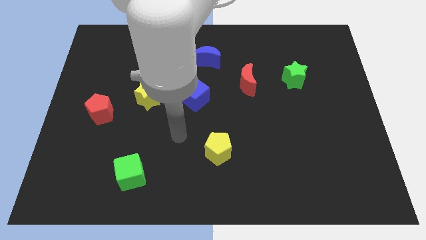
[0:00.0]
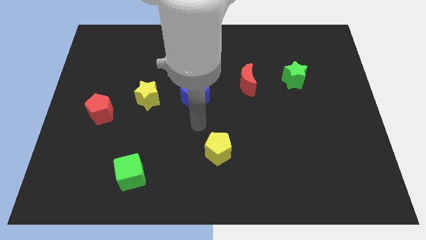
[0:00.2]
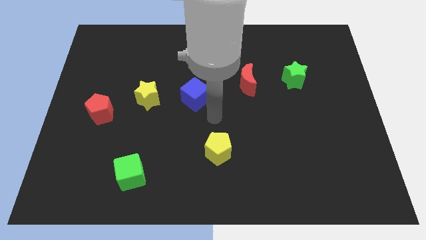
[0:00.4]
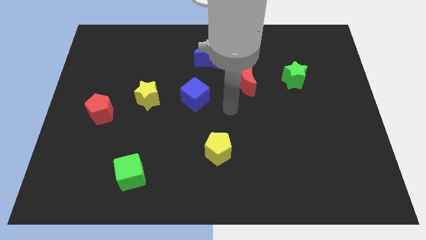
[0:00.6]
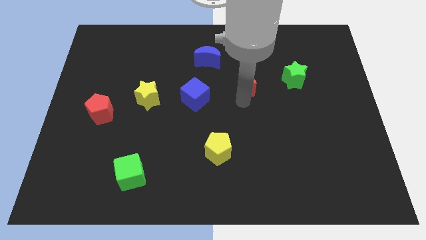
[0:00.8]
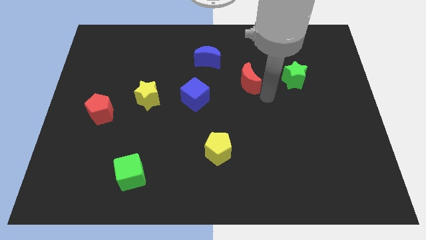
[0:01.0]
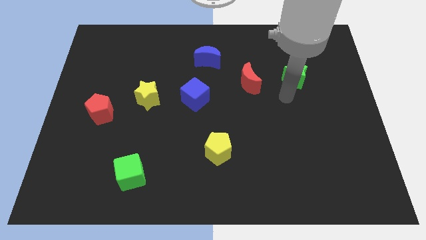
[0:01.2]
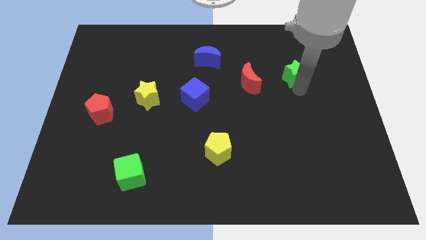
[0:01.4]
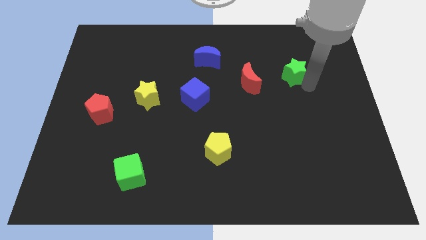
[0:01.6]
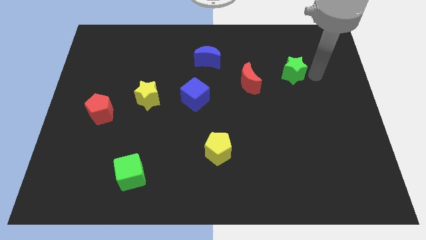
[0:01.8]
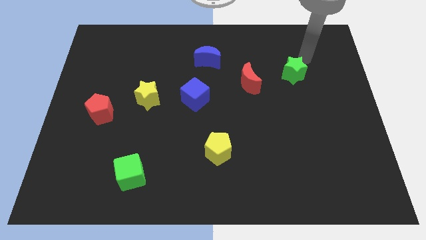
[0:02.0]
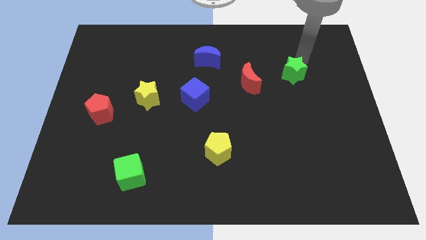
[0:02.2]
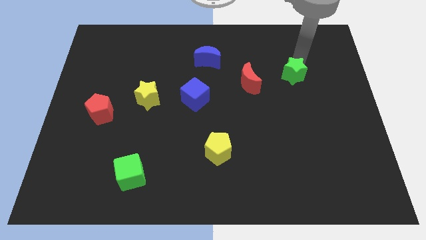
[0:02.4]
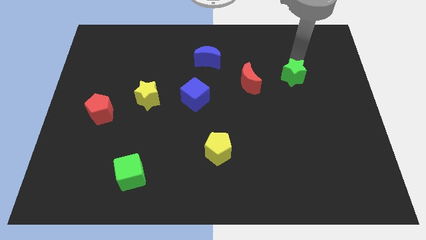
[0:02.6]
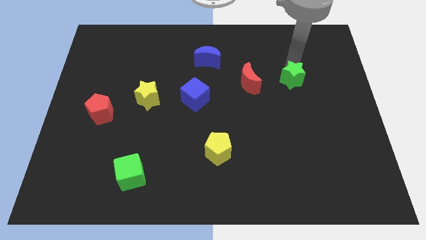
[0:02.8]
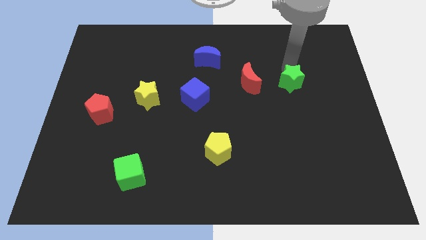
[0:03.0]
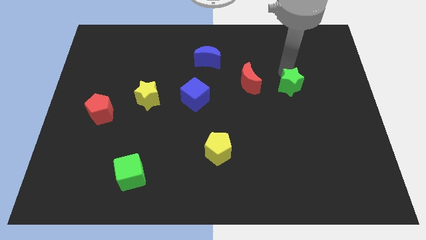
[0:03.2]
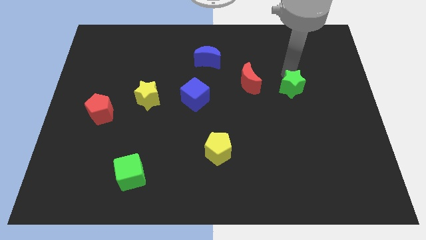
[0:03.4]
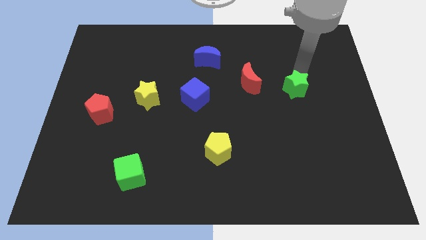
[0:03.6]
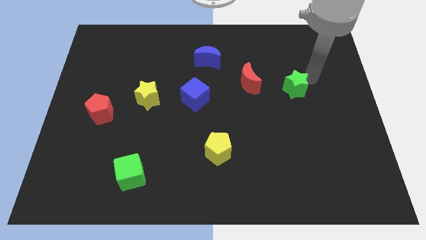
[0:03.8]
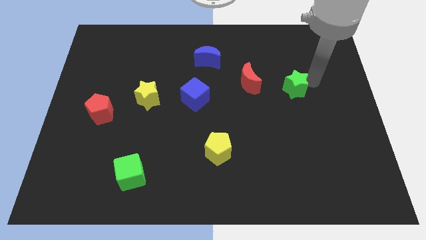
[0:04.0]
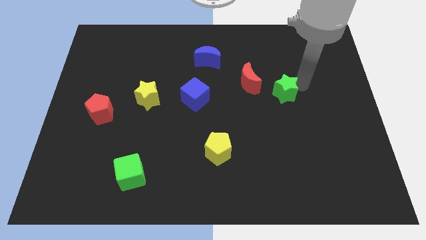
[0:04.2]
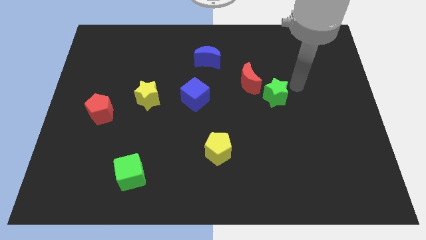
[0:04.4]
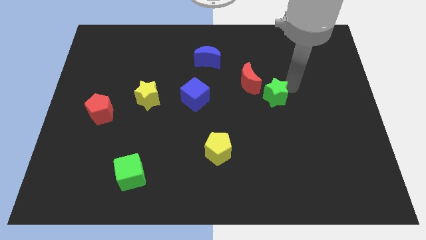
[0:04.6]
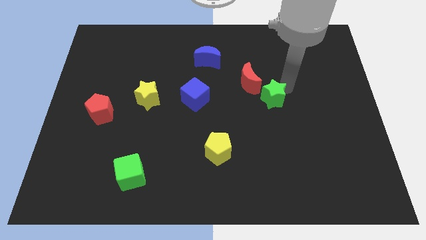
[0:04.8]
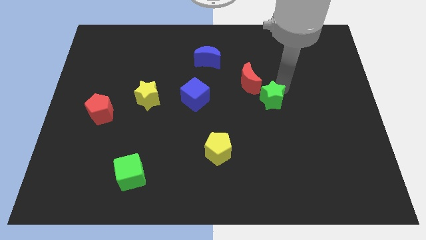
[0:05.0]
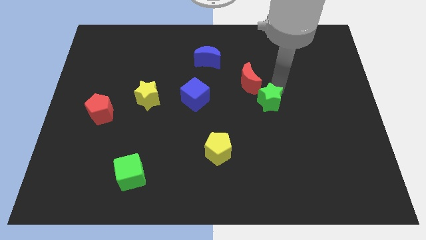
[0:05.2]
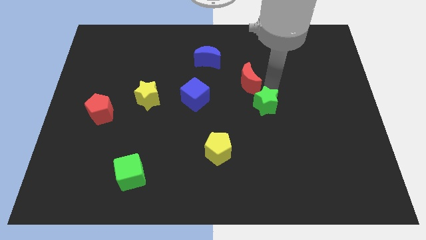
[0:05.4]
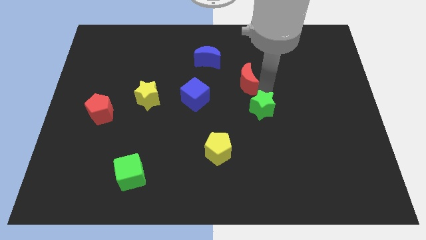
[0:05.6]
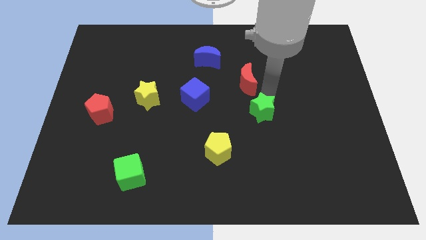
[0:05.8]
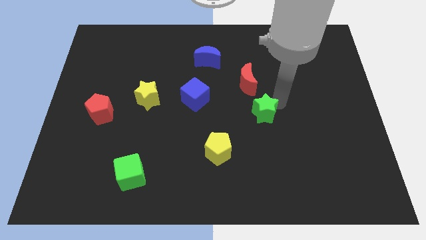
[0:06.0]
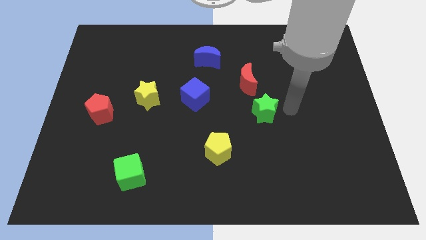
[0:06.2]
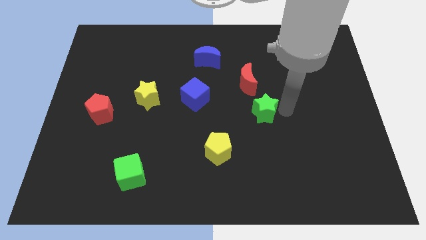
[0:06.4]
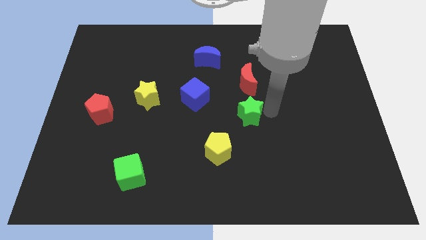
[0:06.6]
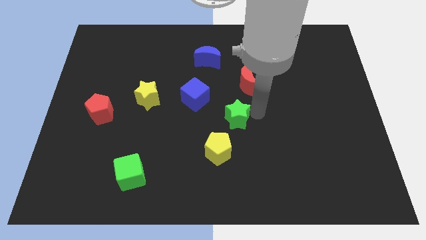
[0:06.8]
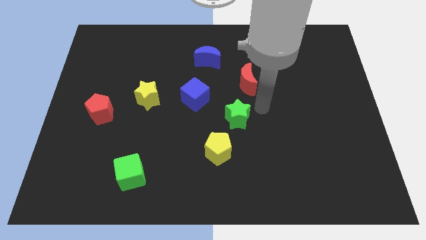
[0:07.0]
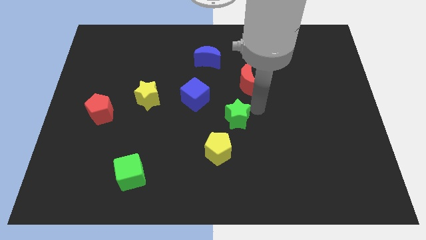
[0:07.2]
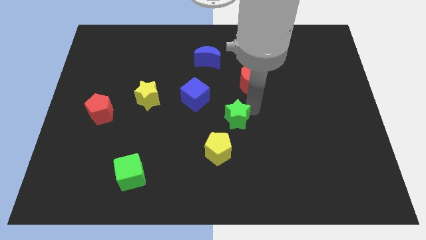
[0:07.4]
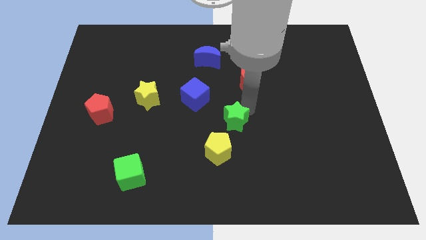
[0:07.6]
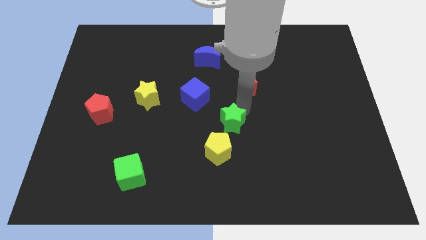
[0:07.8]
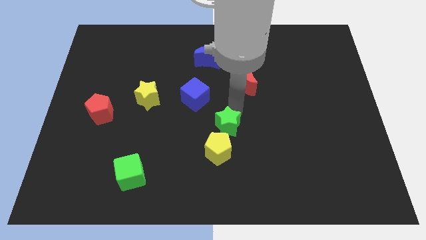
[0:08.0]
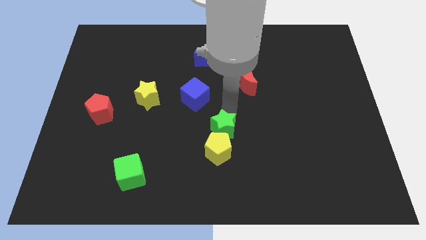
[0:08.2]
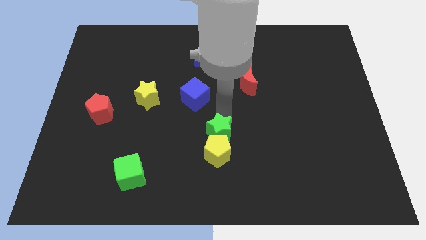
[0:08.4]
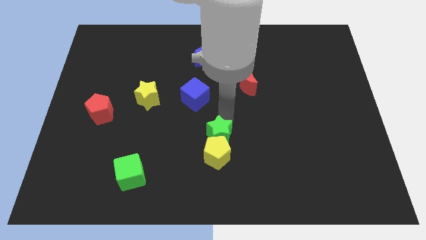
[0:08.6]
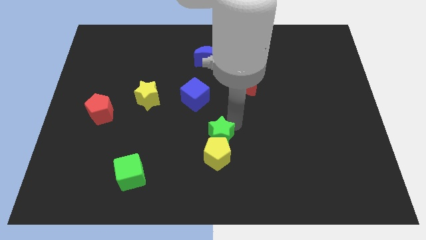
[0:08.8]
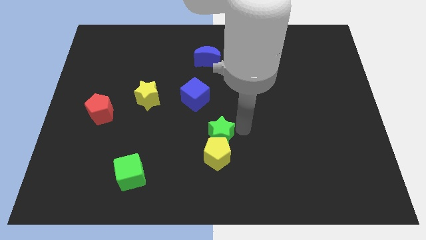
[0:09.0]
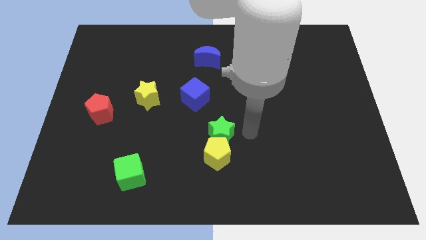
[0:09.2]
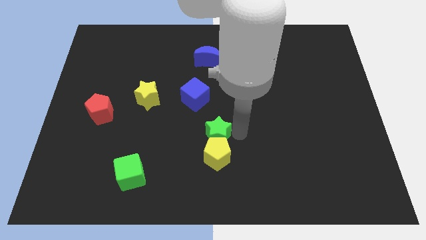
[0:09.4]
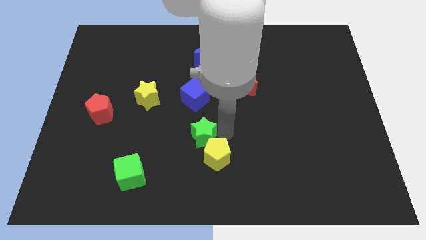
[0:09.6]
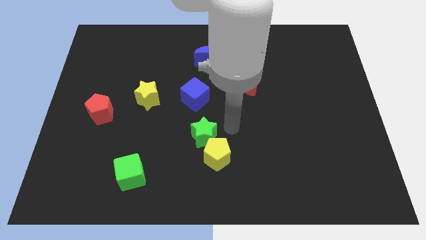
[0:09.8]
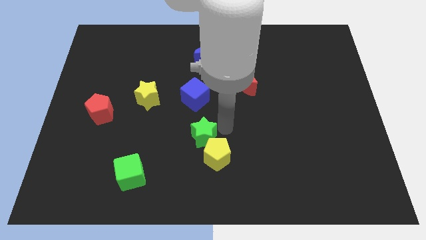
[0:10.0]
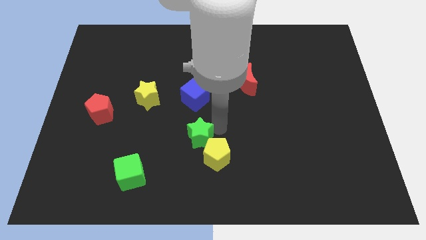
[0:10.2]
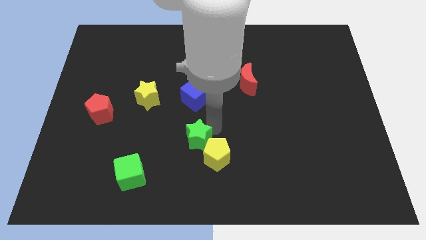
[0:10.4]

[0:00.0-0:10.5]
move the green star just left of the yellow pentagon

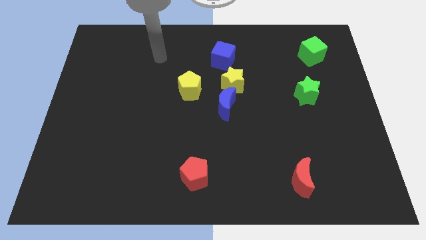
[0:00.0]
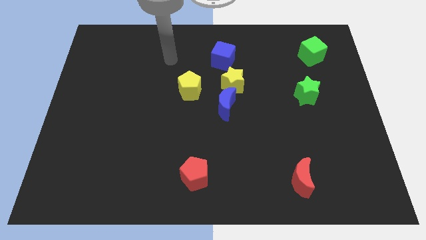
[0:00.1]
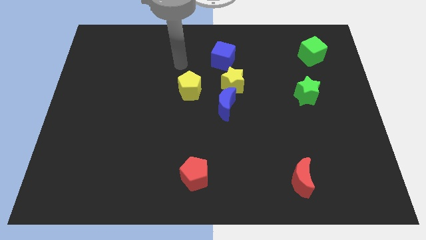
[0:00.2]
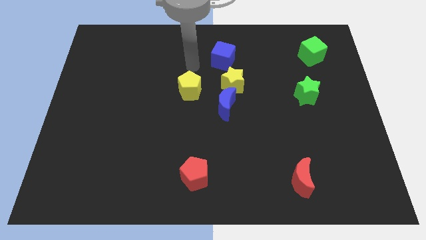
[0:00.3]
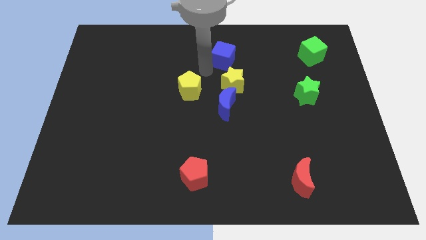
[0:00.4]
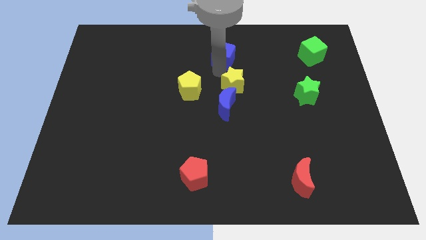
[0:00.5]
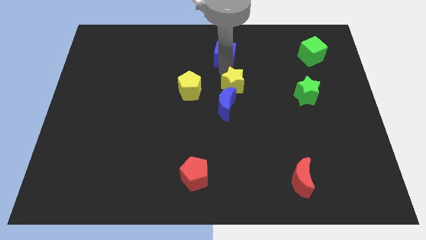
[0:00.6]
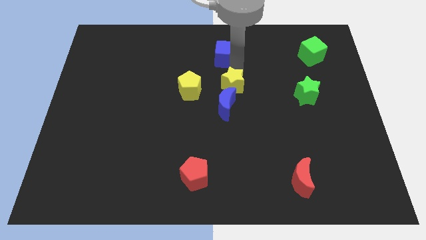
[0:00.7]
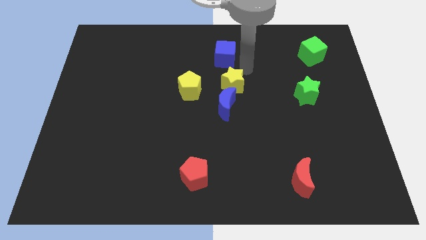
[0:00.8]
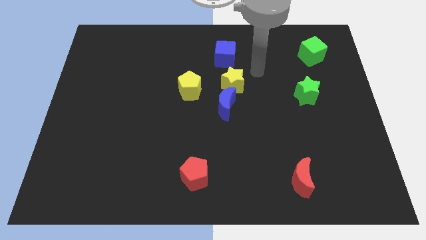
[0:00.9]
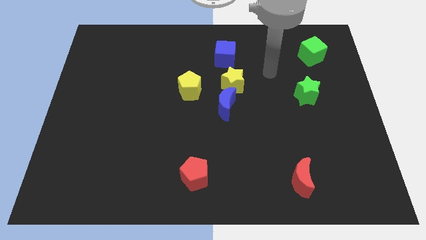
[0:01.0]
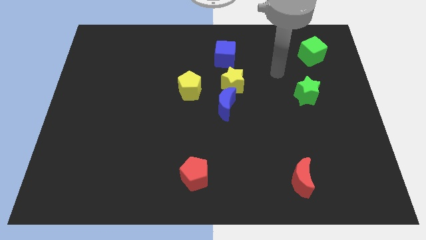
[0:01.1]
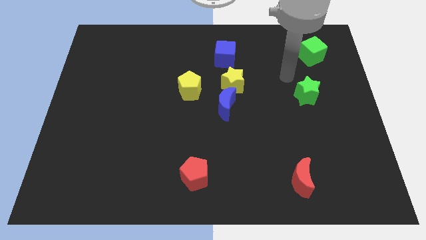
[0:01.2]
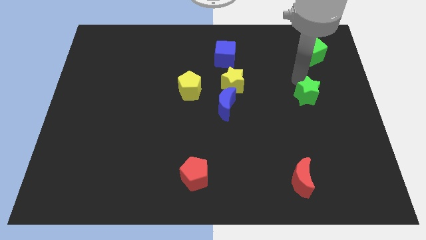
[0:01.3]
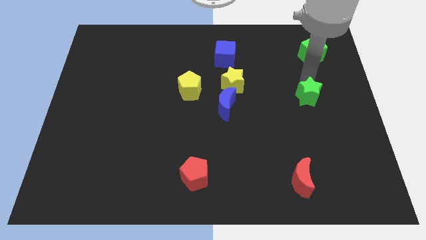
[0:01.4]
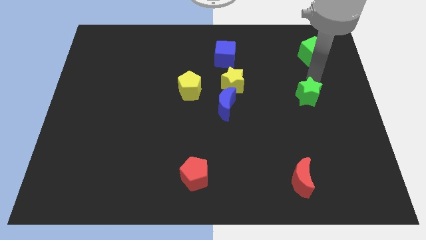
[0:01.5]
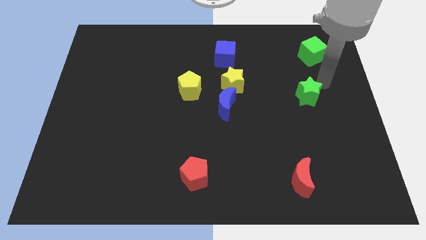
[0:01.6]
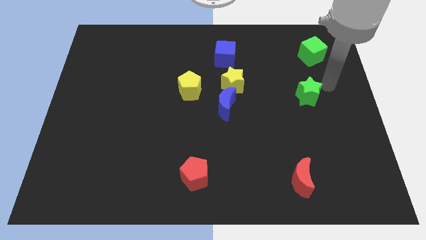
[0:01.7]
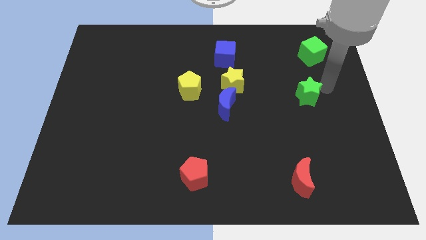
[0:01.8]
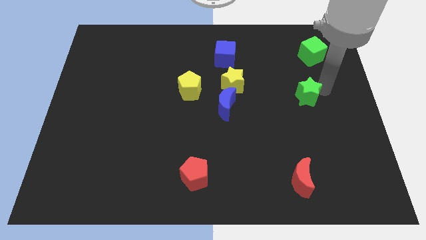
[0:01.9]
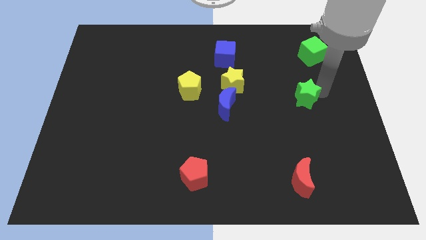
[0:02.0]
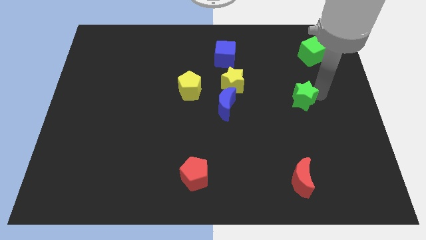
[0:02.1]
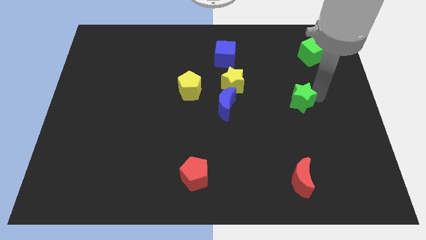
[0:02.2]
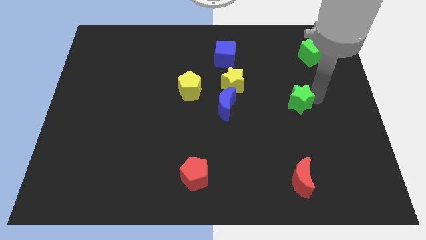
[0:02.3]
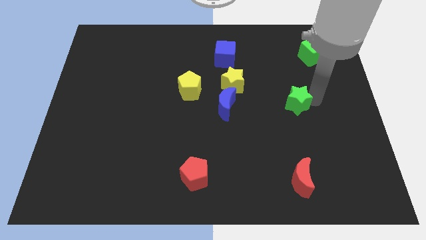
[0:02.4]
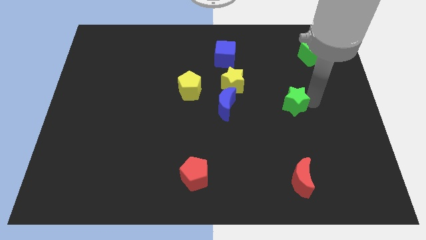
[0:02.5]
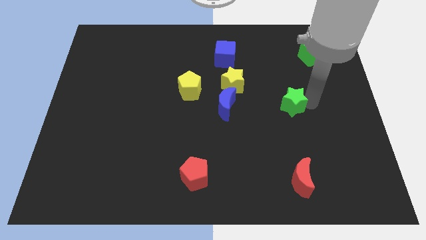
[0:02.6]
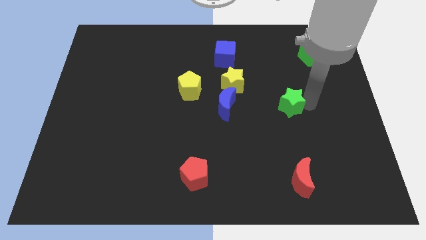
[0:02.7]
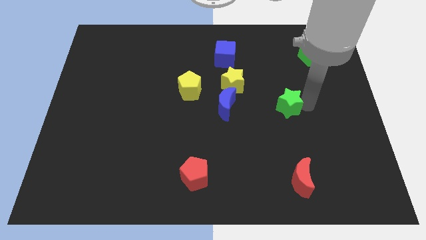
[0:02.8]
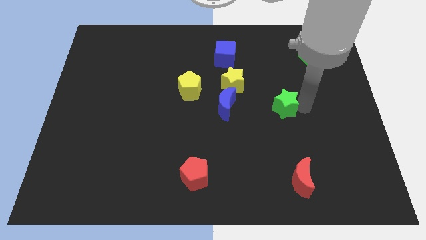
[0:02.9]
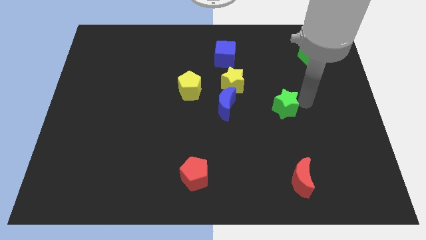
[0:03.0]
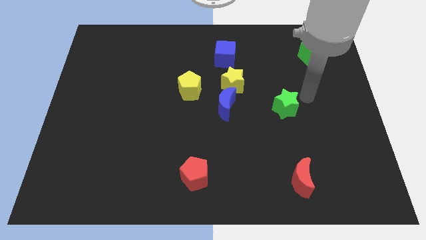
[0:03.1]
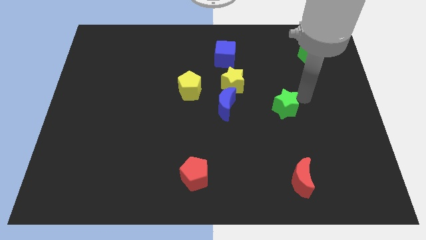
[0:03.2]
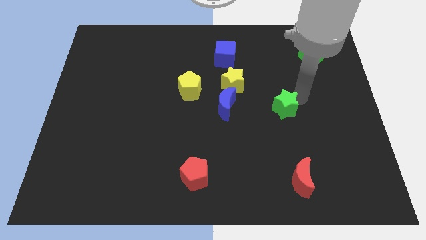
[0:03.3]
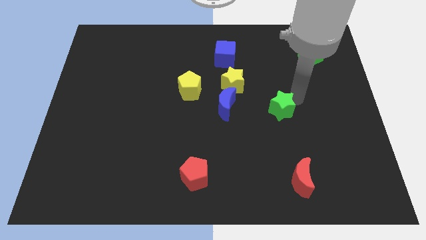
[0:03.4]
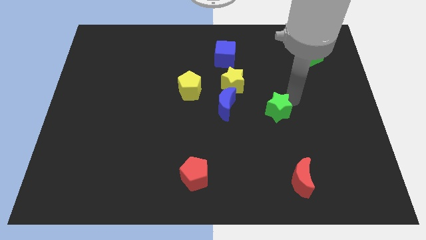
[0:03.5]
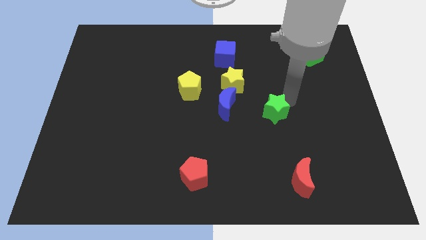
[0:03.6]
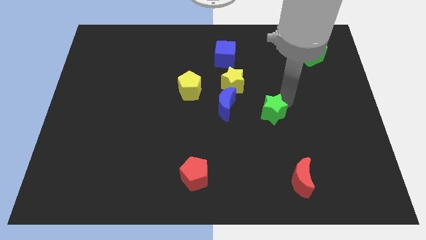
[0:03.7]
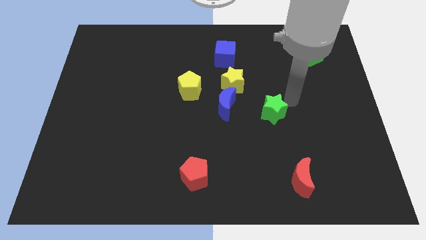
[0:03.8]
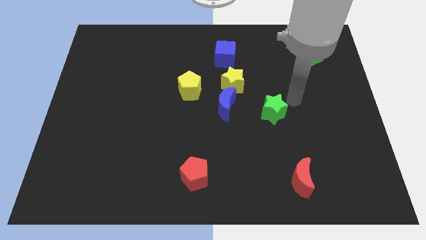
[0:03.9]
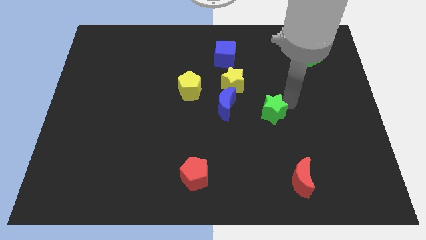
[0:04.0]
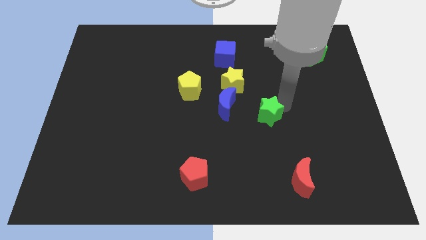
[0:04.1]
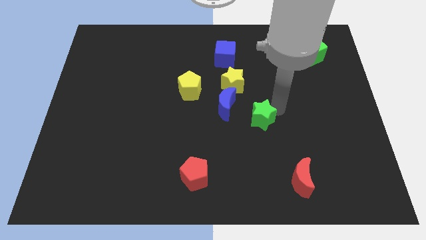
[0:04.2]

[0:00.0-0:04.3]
move the green star to the bottom right side of the blue moon
